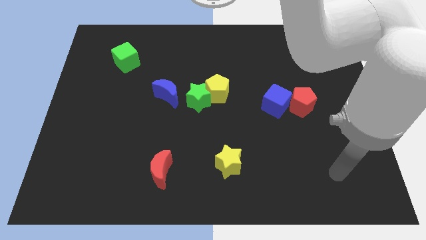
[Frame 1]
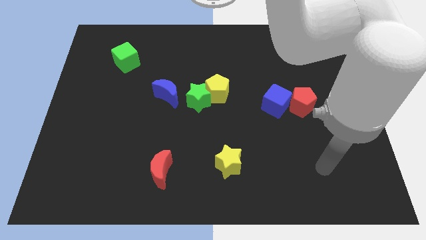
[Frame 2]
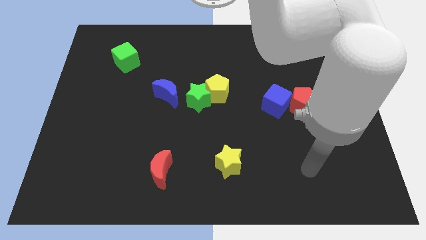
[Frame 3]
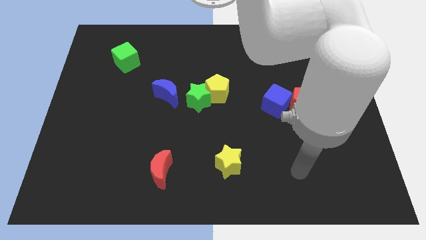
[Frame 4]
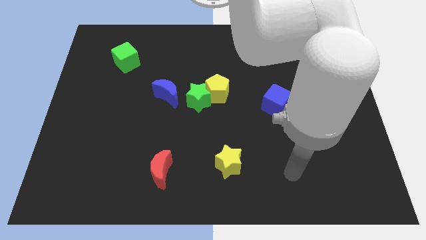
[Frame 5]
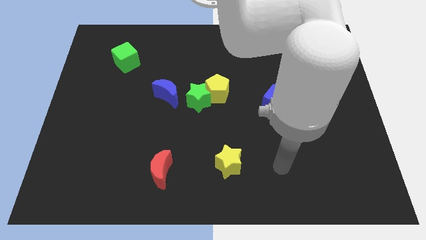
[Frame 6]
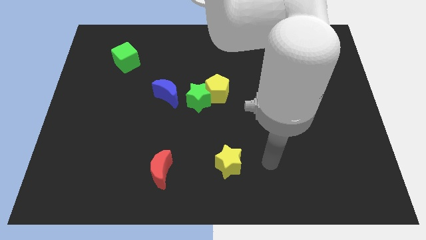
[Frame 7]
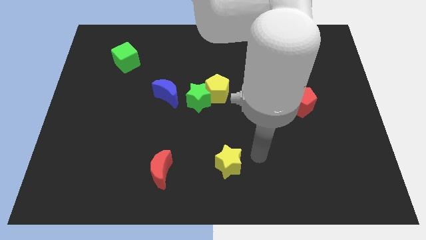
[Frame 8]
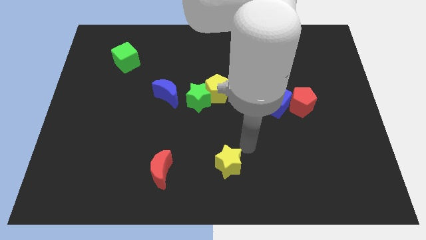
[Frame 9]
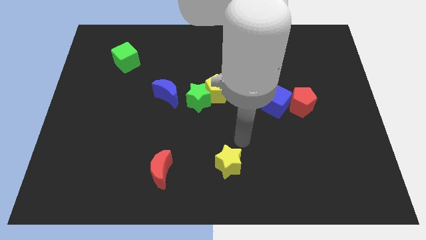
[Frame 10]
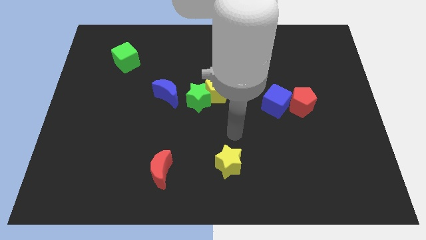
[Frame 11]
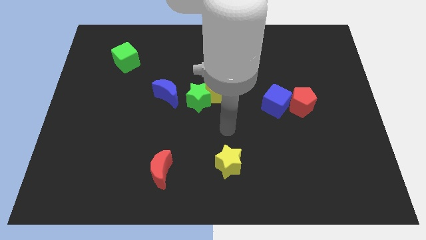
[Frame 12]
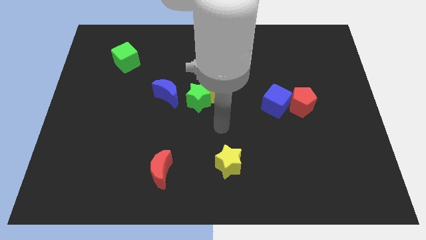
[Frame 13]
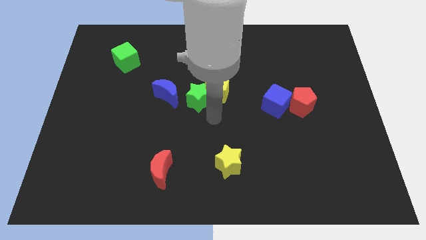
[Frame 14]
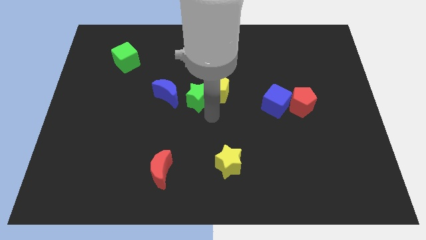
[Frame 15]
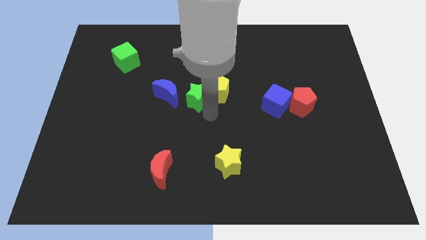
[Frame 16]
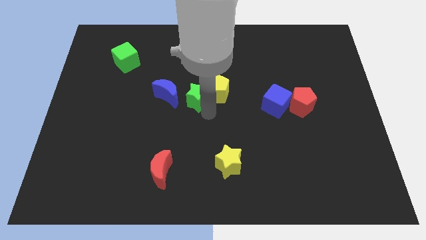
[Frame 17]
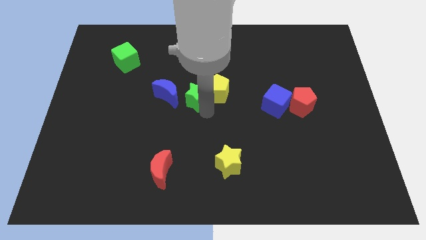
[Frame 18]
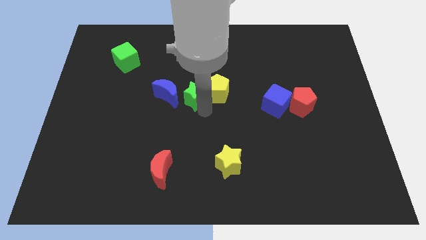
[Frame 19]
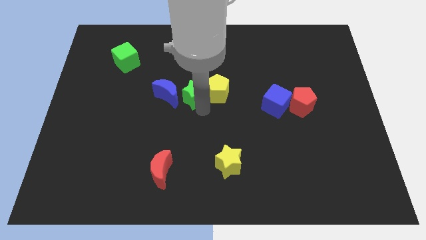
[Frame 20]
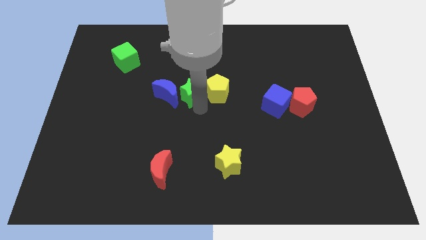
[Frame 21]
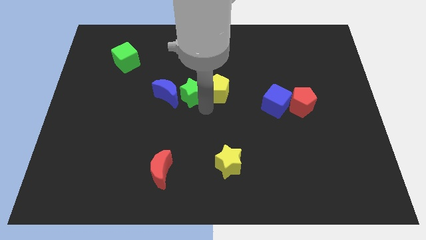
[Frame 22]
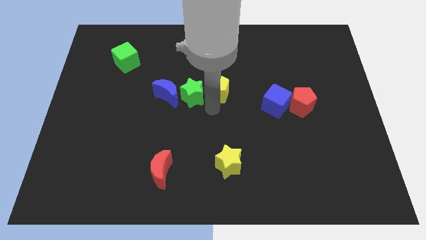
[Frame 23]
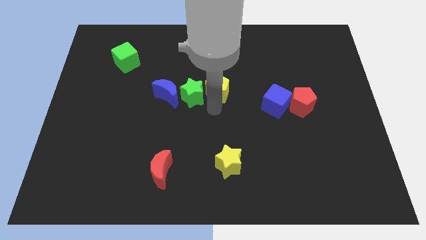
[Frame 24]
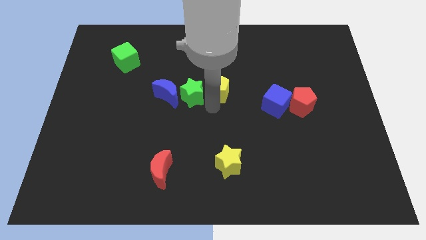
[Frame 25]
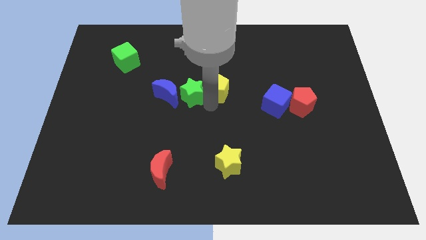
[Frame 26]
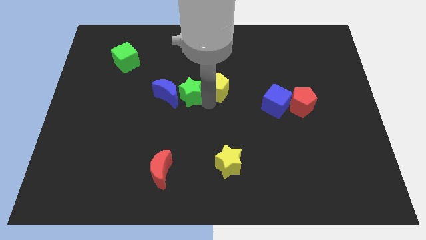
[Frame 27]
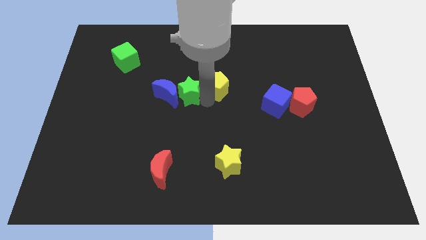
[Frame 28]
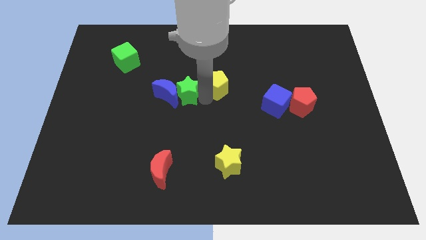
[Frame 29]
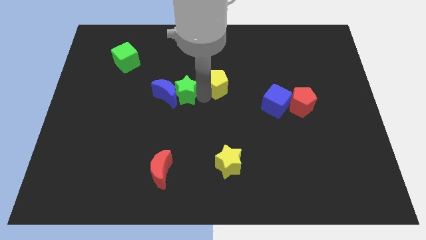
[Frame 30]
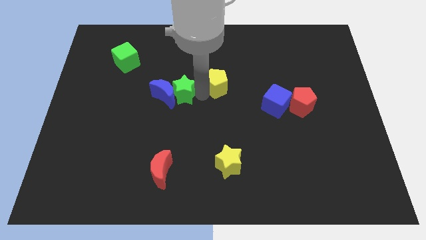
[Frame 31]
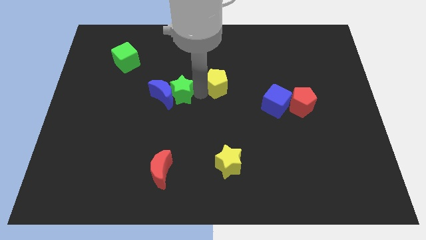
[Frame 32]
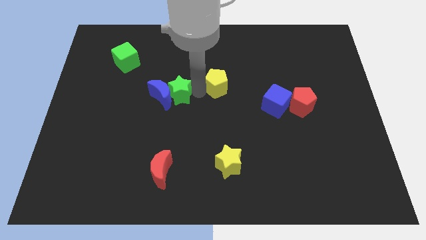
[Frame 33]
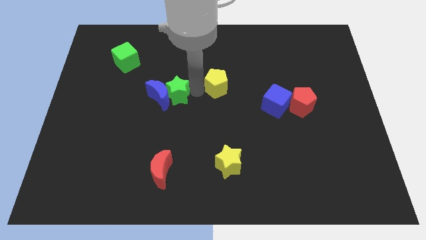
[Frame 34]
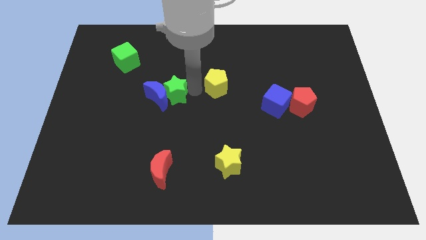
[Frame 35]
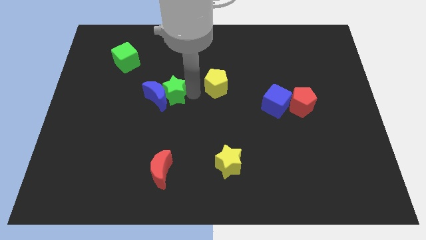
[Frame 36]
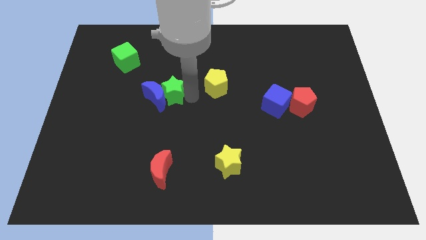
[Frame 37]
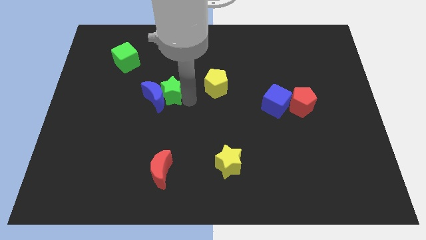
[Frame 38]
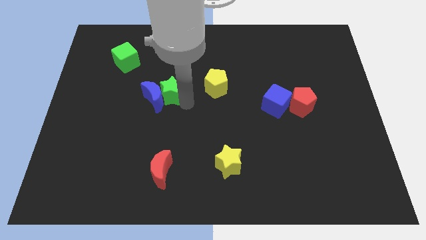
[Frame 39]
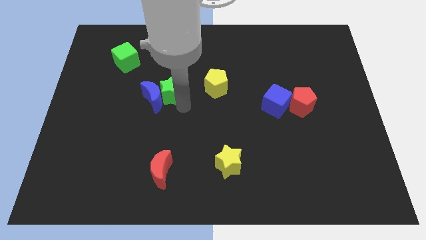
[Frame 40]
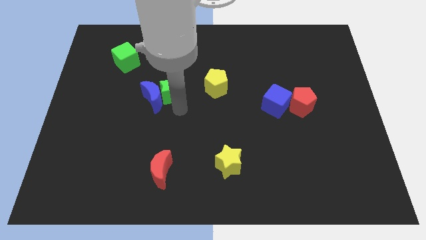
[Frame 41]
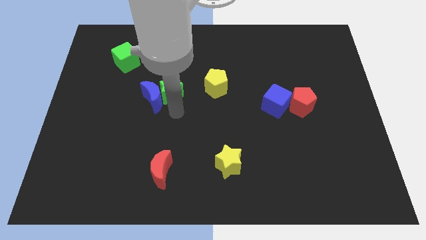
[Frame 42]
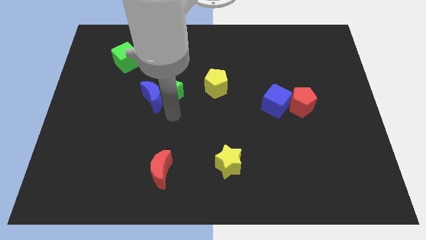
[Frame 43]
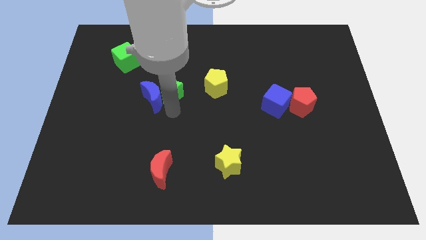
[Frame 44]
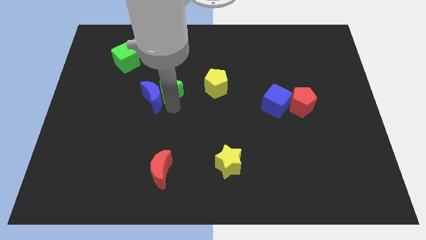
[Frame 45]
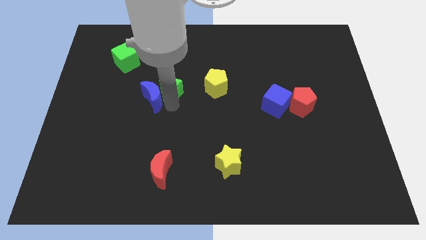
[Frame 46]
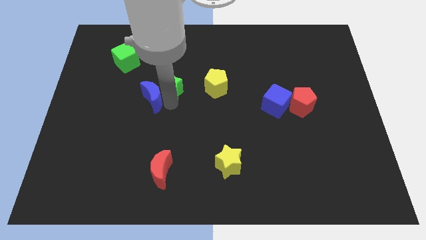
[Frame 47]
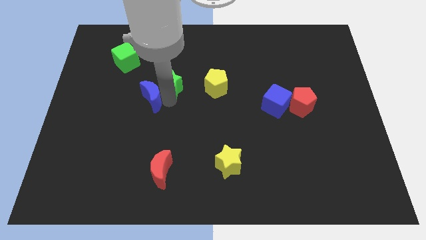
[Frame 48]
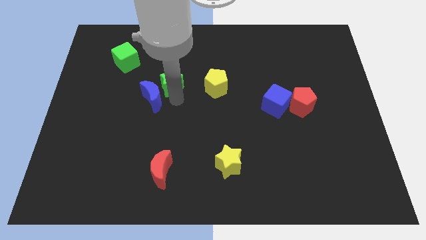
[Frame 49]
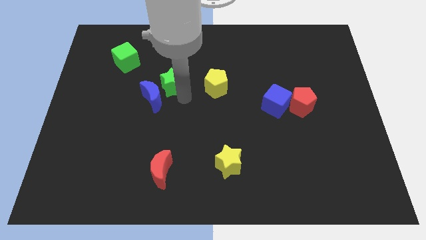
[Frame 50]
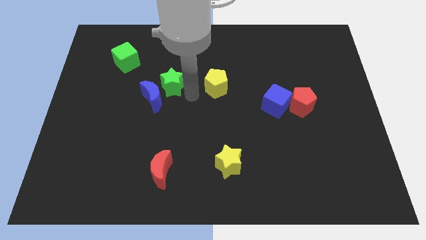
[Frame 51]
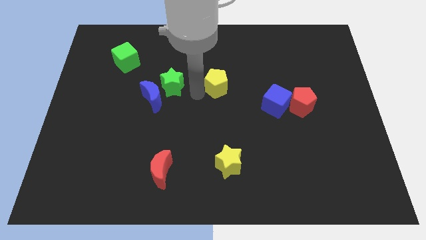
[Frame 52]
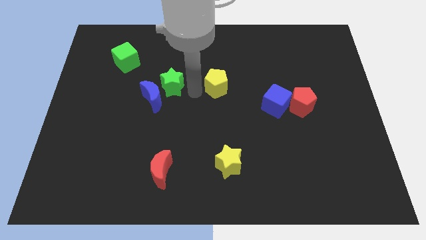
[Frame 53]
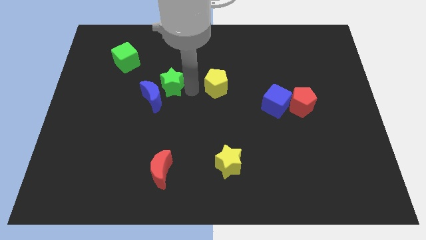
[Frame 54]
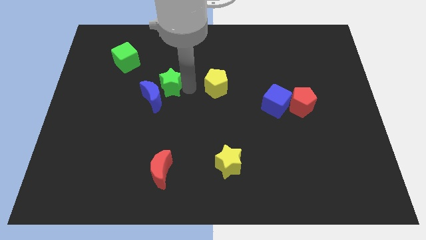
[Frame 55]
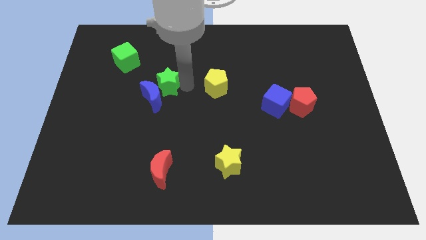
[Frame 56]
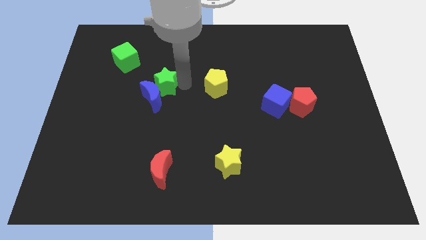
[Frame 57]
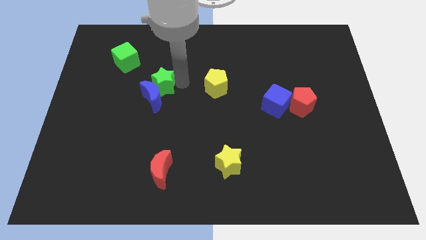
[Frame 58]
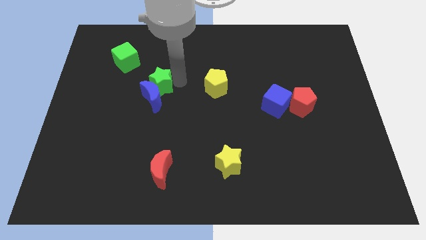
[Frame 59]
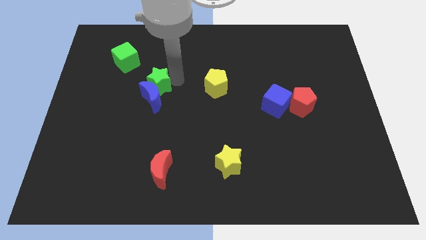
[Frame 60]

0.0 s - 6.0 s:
slide the green star diagonally down and to the right of the green cube
